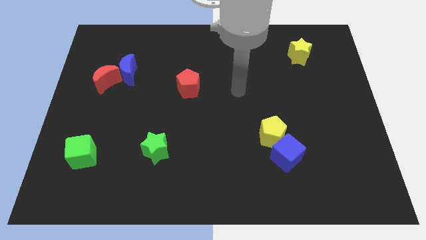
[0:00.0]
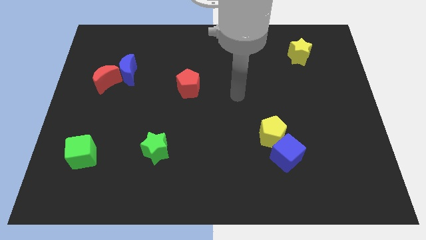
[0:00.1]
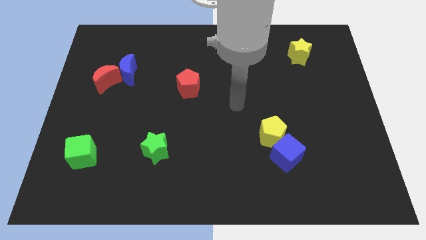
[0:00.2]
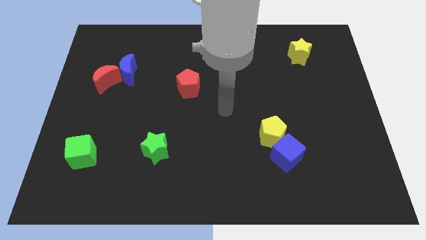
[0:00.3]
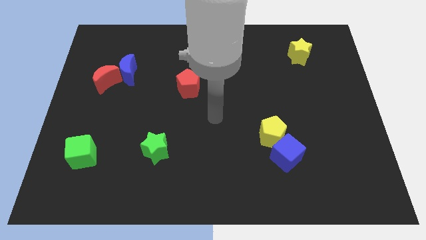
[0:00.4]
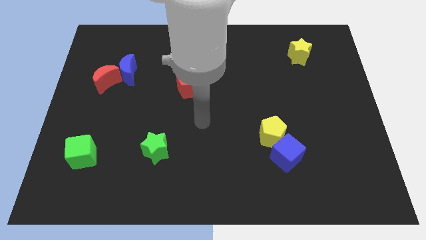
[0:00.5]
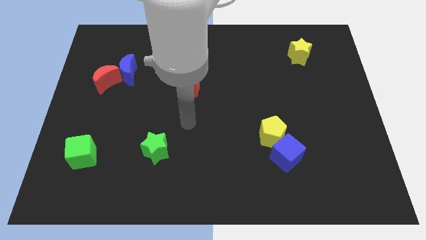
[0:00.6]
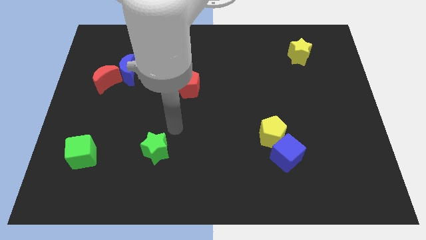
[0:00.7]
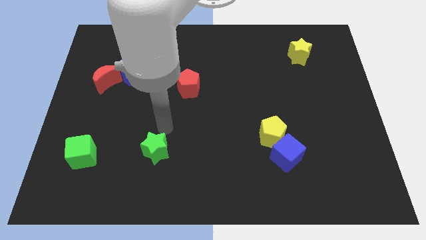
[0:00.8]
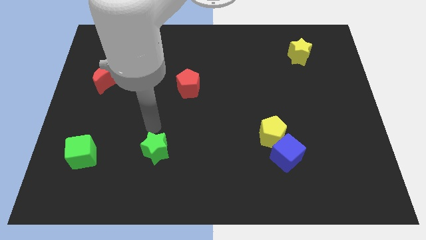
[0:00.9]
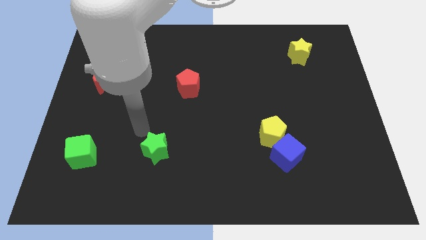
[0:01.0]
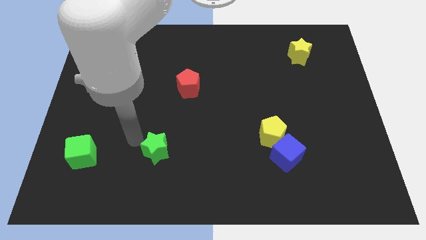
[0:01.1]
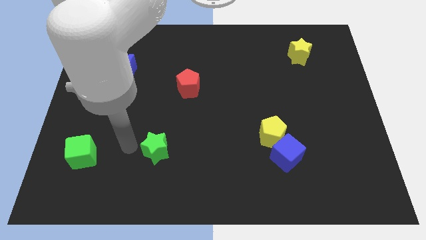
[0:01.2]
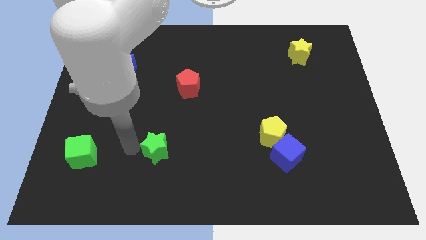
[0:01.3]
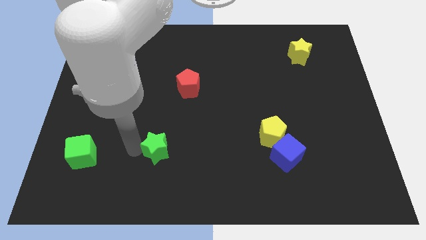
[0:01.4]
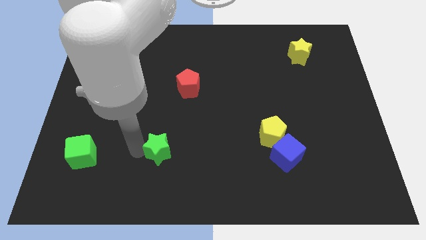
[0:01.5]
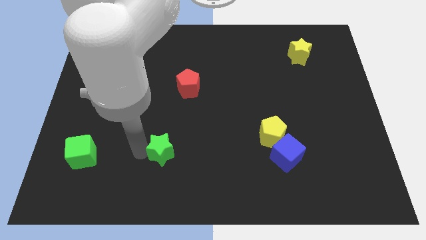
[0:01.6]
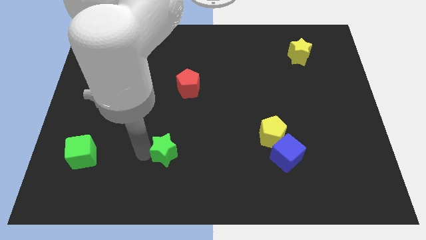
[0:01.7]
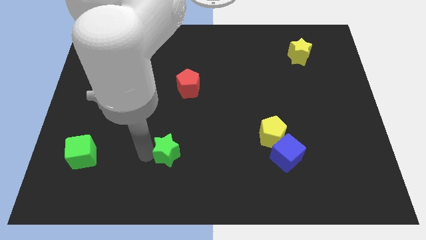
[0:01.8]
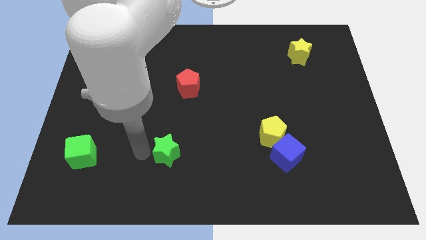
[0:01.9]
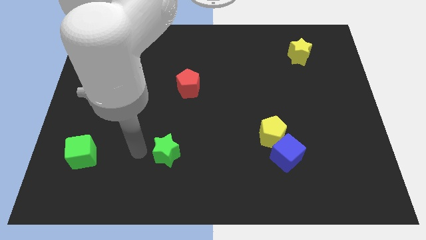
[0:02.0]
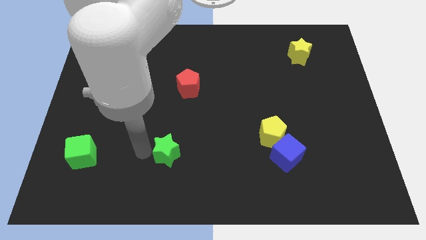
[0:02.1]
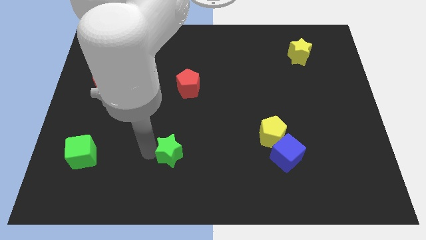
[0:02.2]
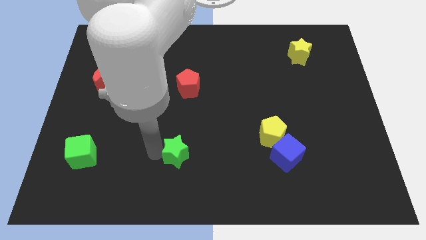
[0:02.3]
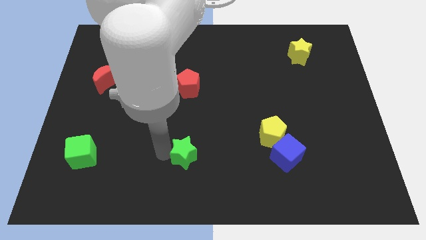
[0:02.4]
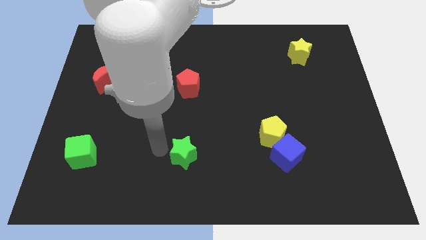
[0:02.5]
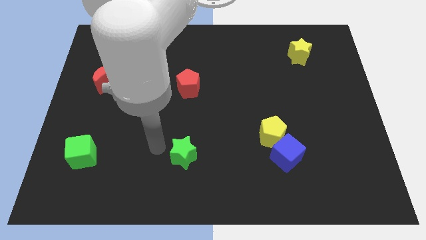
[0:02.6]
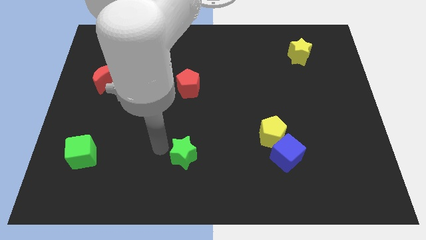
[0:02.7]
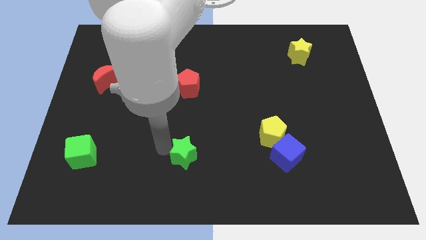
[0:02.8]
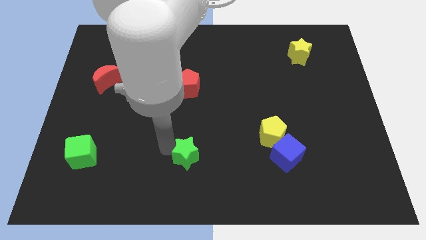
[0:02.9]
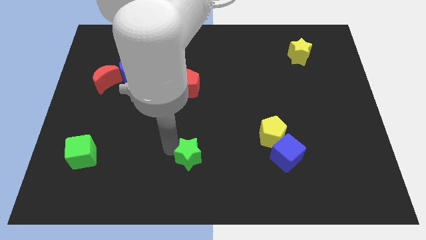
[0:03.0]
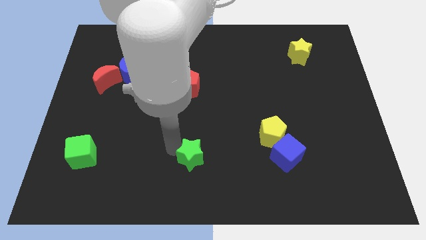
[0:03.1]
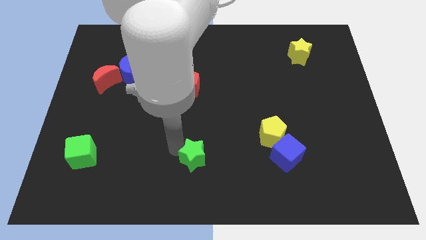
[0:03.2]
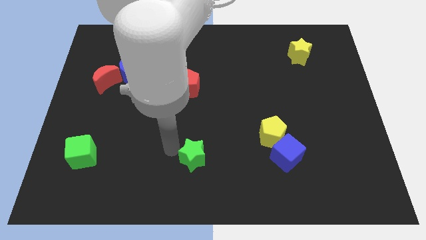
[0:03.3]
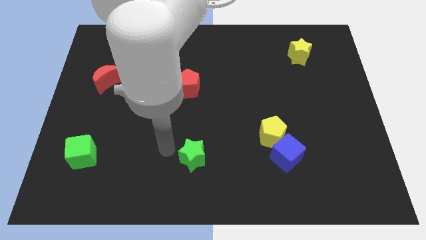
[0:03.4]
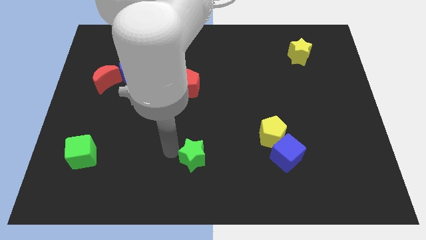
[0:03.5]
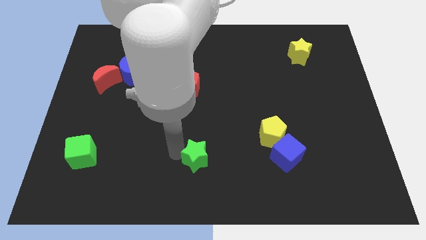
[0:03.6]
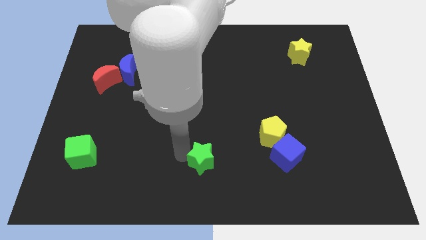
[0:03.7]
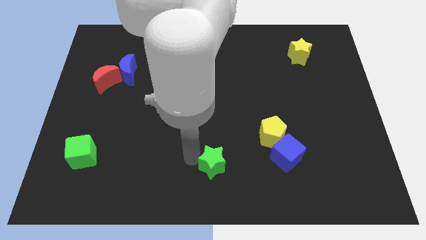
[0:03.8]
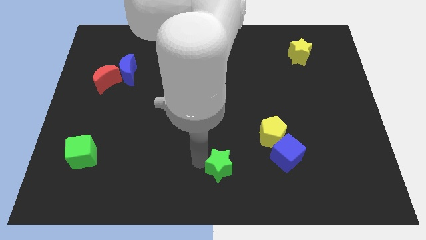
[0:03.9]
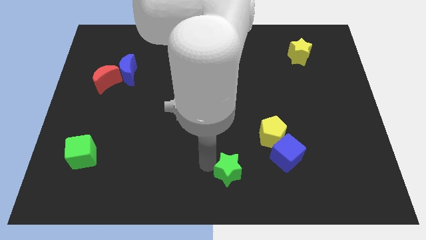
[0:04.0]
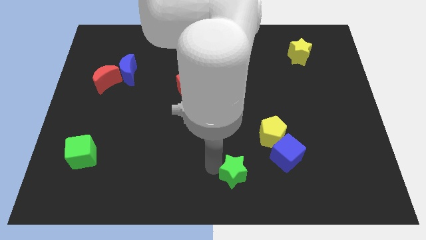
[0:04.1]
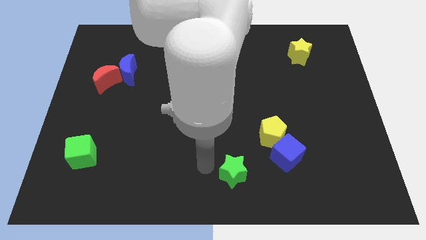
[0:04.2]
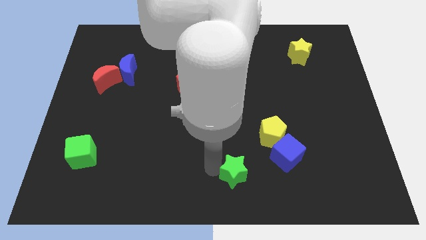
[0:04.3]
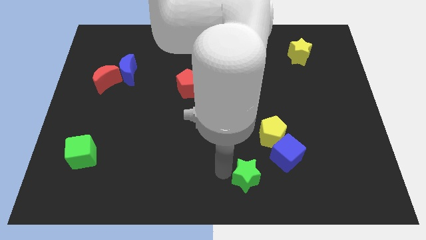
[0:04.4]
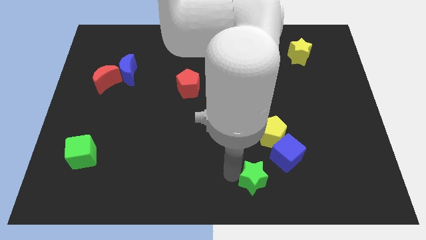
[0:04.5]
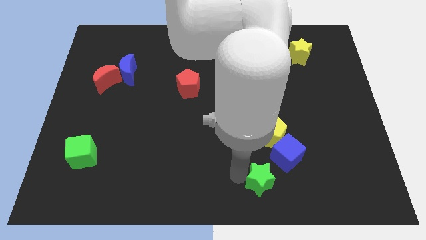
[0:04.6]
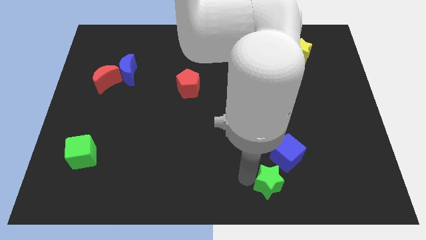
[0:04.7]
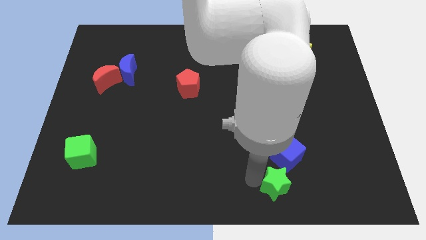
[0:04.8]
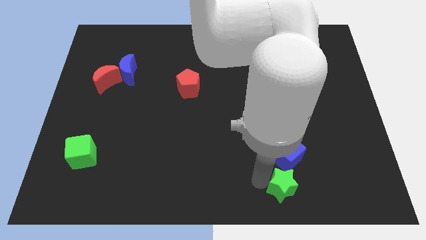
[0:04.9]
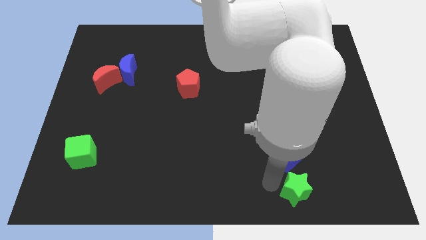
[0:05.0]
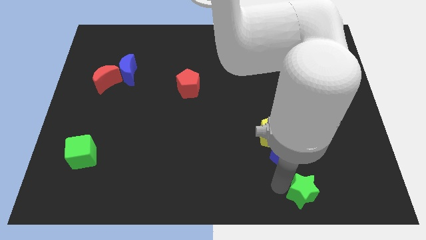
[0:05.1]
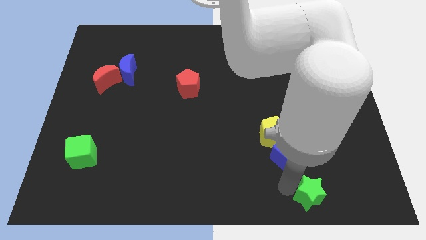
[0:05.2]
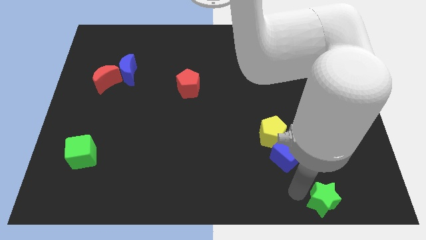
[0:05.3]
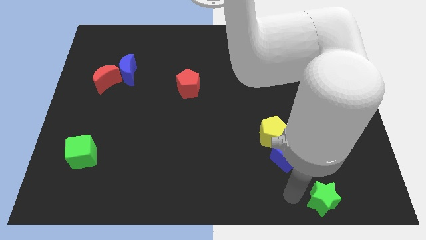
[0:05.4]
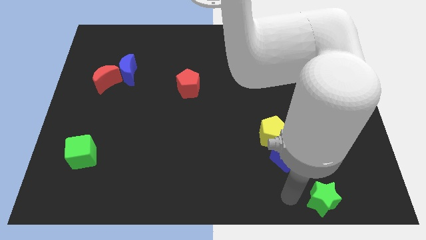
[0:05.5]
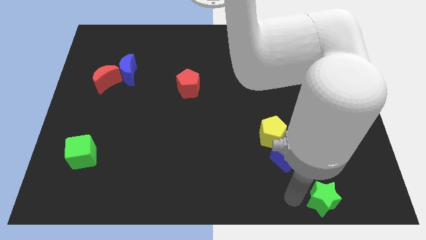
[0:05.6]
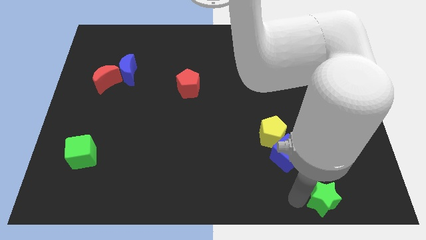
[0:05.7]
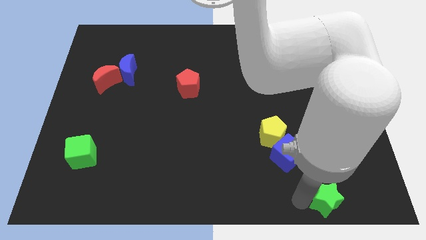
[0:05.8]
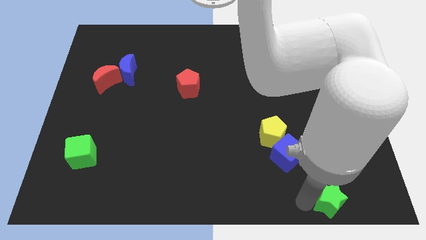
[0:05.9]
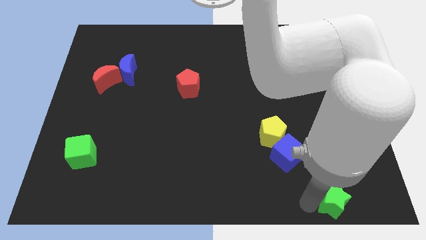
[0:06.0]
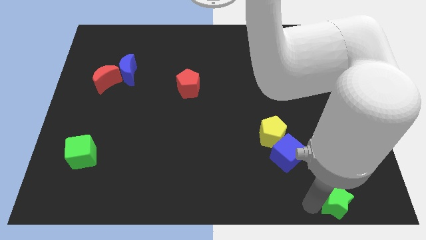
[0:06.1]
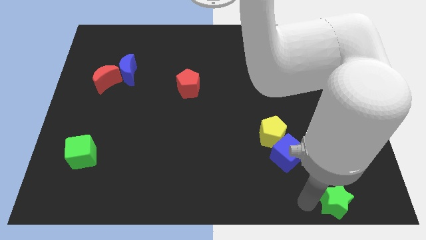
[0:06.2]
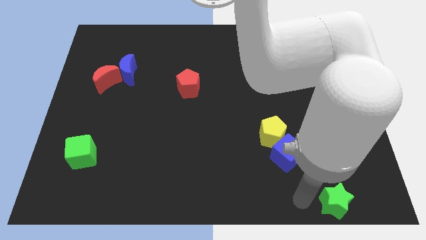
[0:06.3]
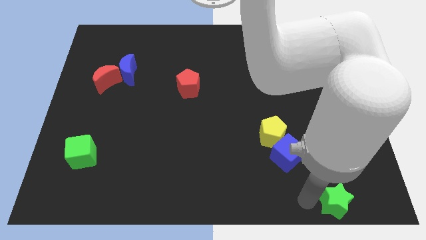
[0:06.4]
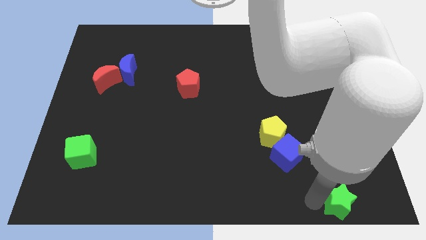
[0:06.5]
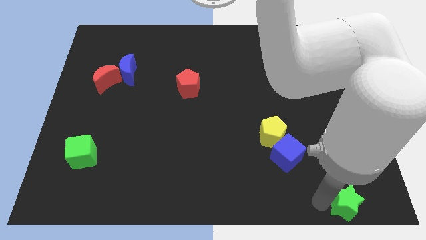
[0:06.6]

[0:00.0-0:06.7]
push the green star to the bottom right corner
